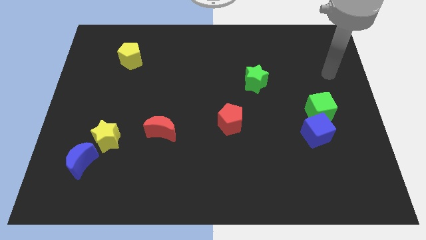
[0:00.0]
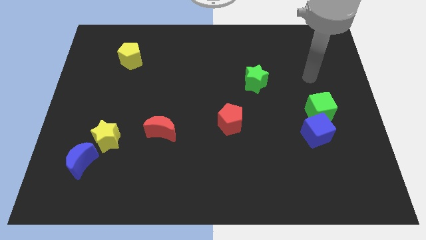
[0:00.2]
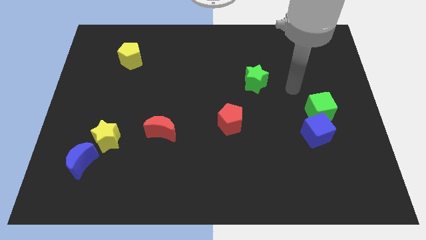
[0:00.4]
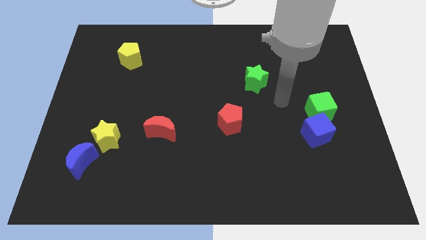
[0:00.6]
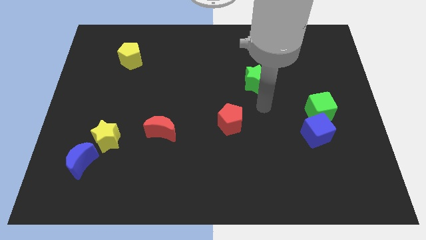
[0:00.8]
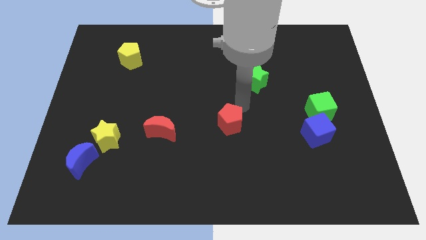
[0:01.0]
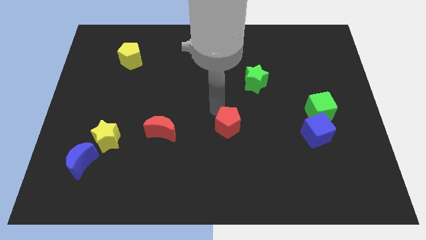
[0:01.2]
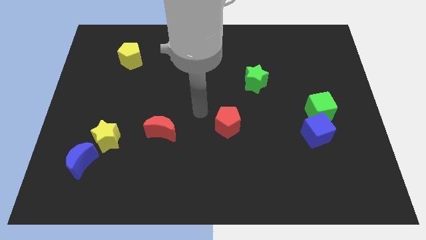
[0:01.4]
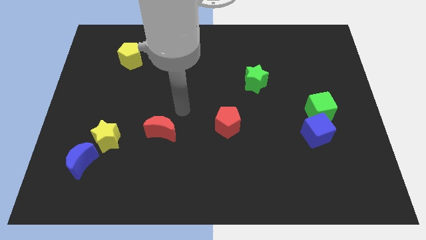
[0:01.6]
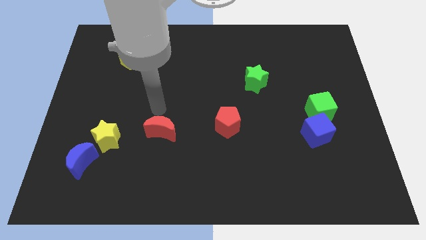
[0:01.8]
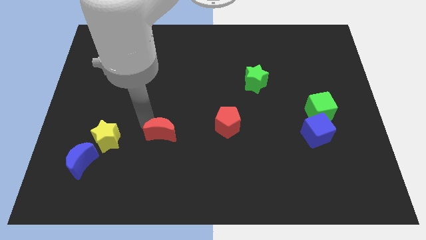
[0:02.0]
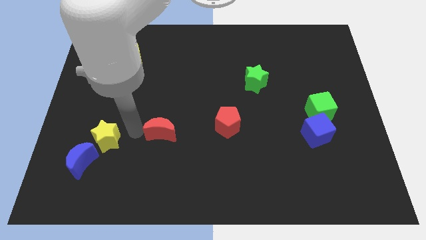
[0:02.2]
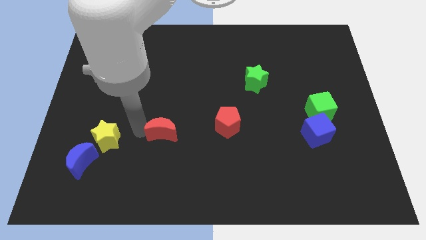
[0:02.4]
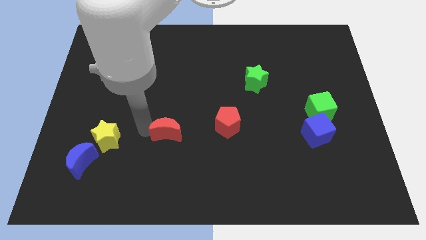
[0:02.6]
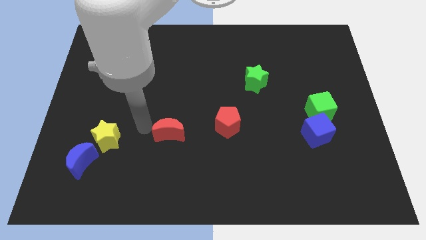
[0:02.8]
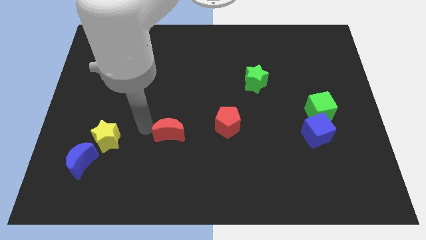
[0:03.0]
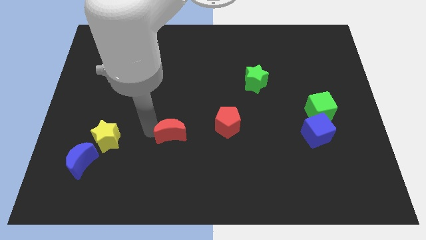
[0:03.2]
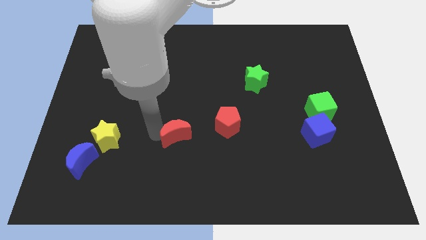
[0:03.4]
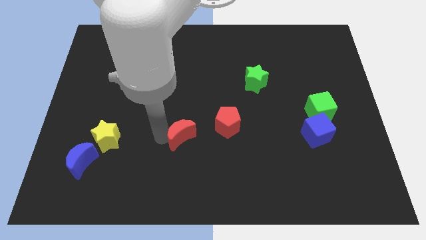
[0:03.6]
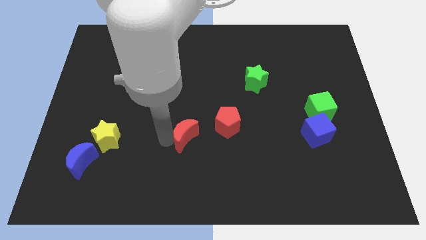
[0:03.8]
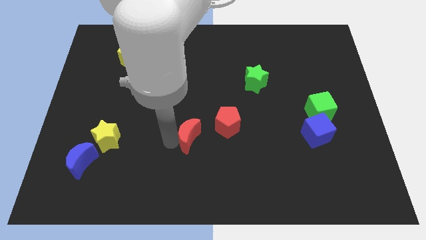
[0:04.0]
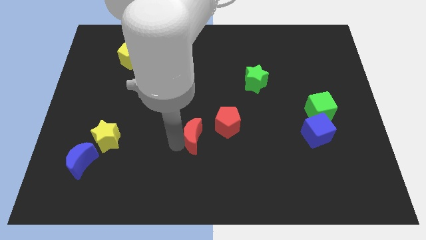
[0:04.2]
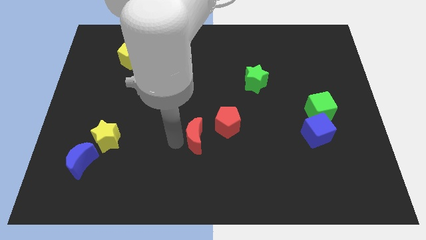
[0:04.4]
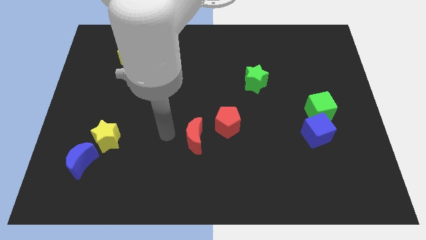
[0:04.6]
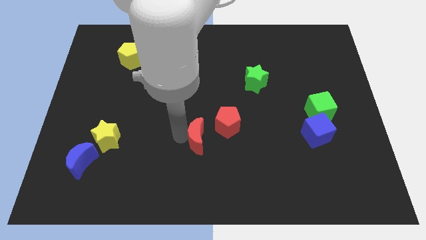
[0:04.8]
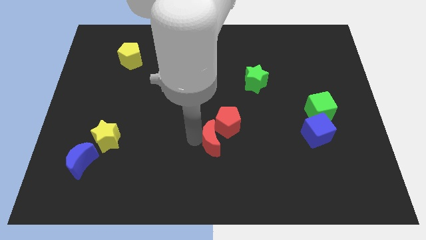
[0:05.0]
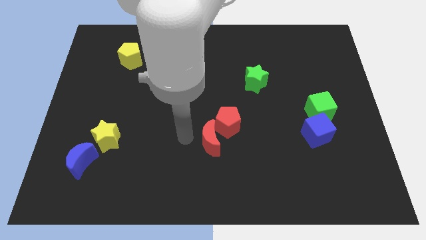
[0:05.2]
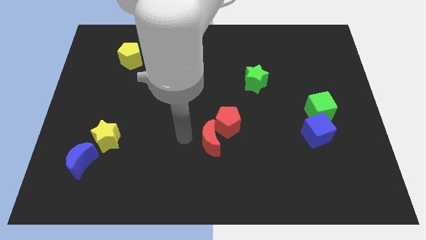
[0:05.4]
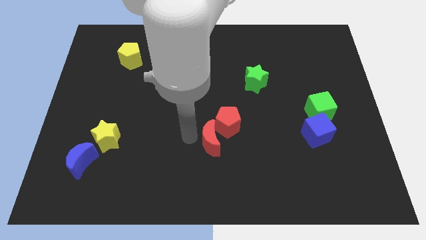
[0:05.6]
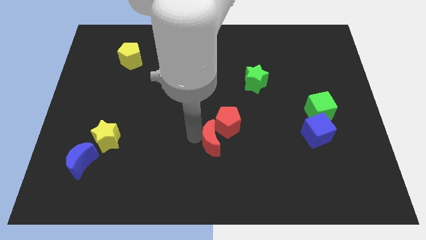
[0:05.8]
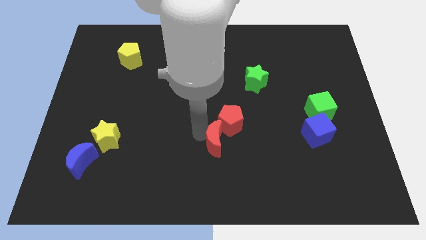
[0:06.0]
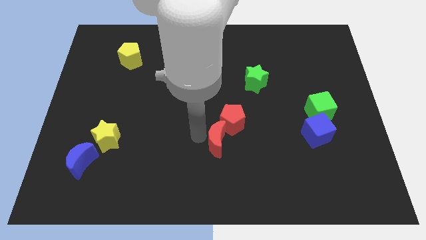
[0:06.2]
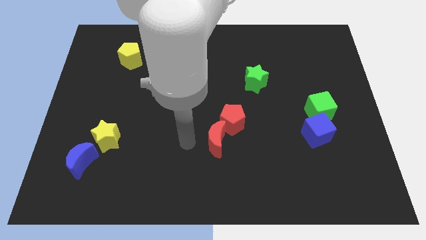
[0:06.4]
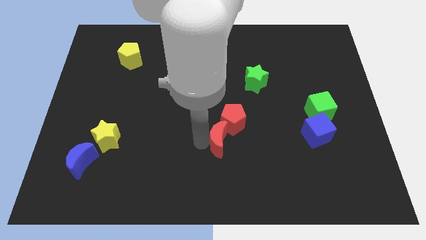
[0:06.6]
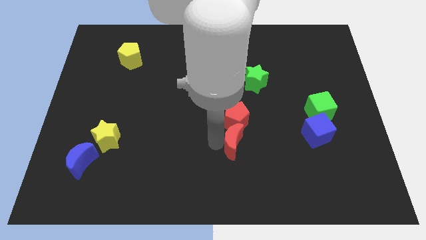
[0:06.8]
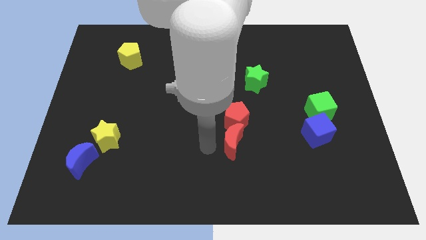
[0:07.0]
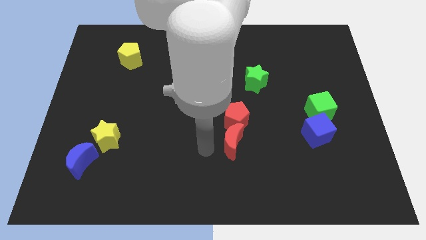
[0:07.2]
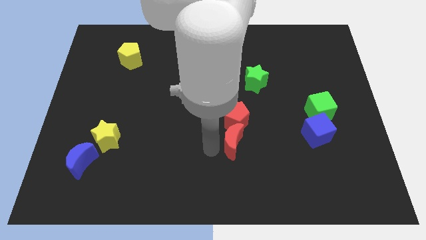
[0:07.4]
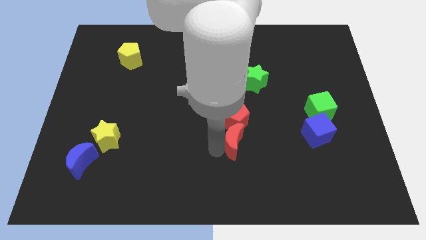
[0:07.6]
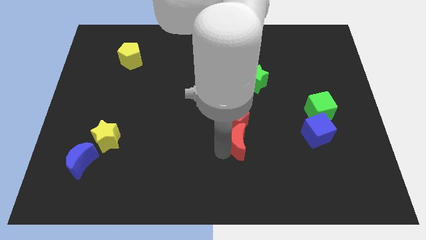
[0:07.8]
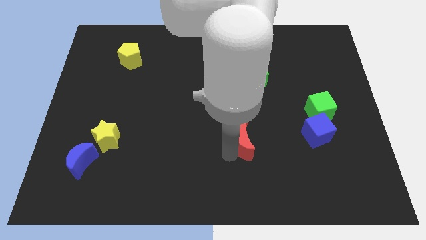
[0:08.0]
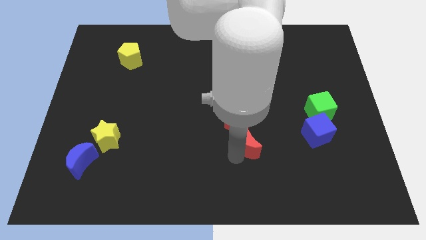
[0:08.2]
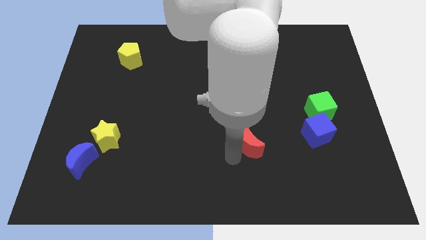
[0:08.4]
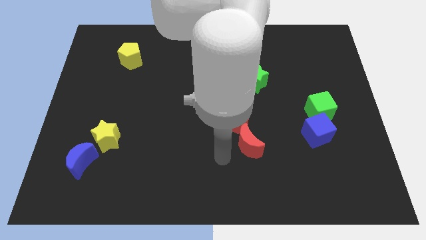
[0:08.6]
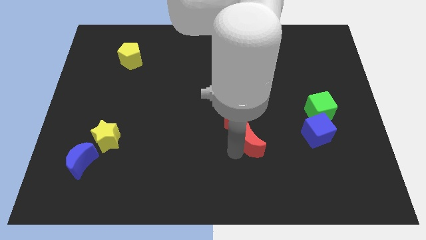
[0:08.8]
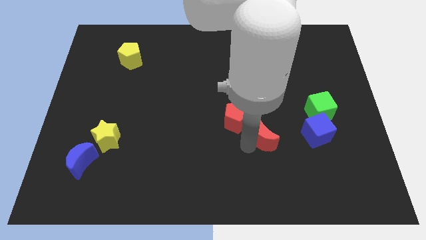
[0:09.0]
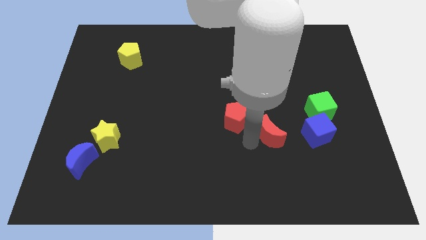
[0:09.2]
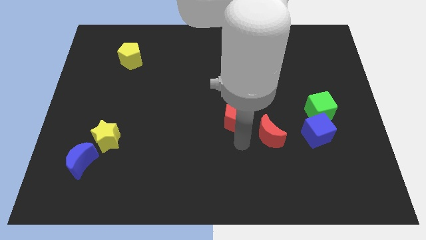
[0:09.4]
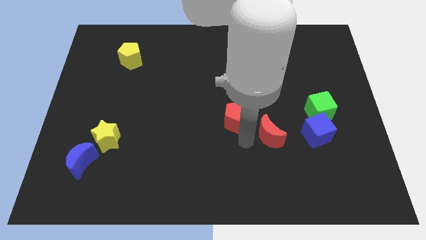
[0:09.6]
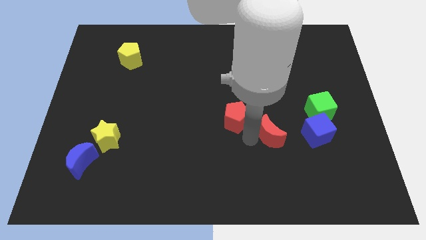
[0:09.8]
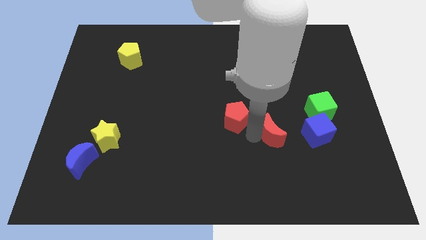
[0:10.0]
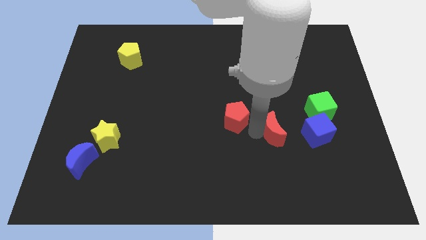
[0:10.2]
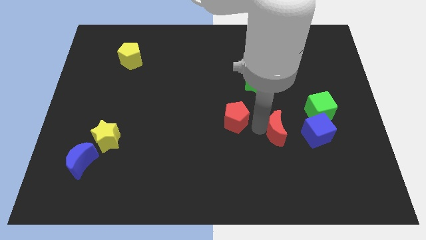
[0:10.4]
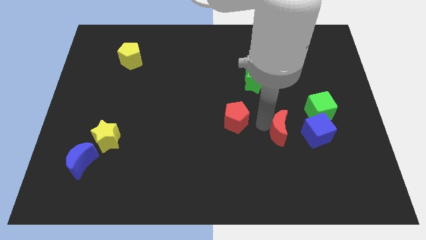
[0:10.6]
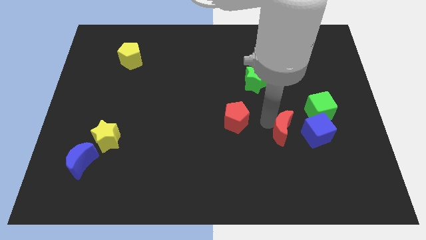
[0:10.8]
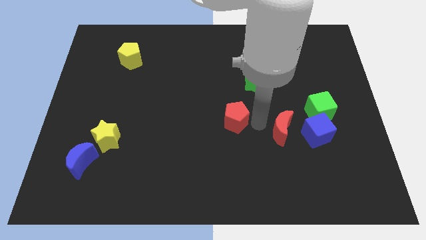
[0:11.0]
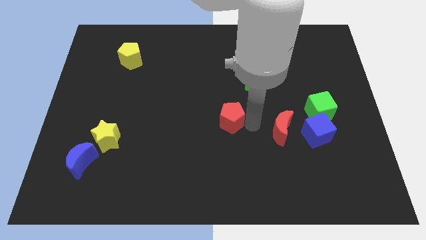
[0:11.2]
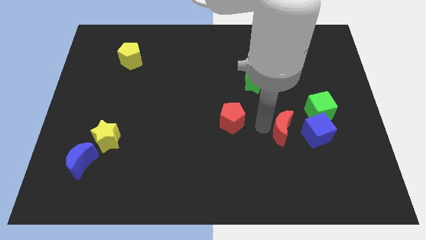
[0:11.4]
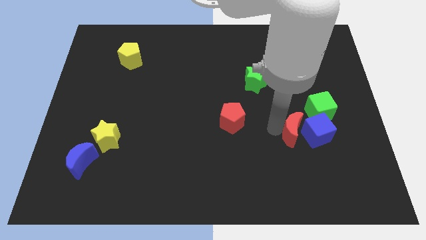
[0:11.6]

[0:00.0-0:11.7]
put the red moon towards the blue cube

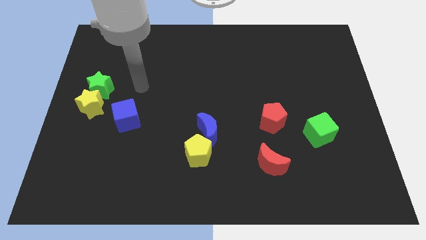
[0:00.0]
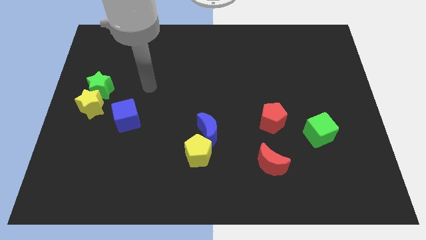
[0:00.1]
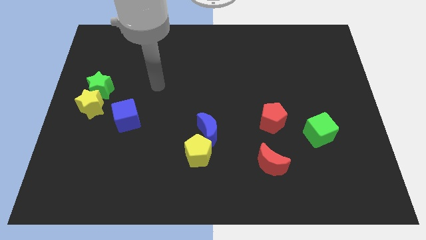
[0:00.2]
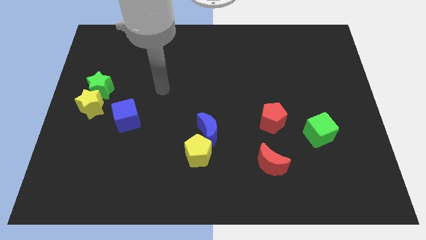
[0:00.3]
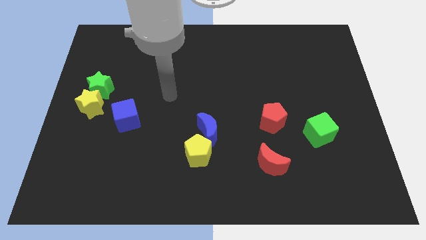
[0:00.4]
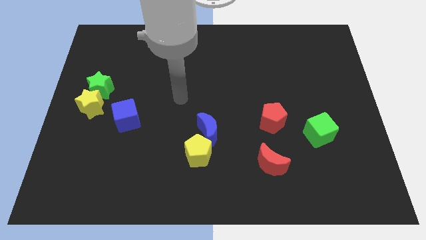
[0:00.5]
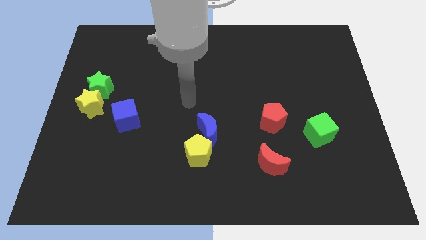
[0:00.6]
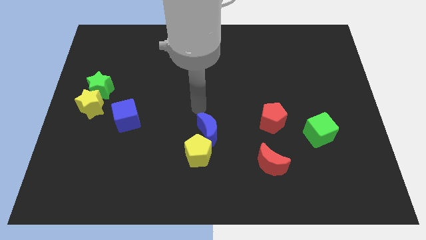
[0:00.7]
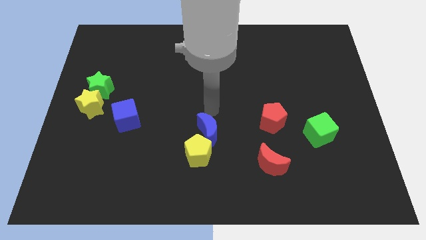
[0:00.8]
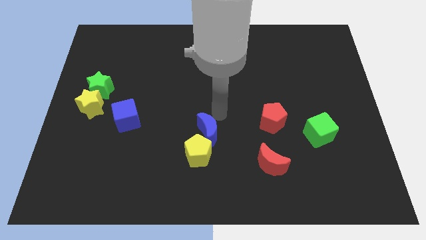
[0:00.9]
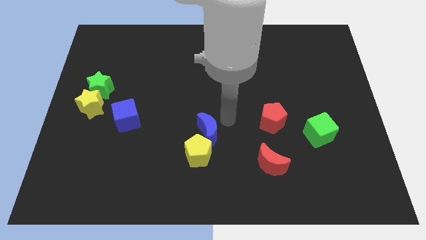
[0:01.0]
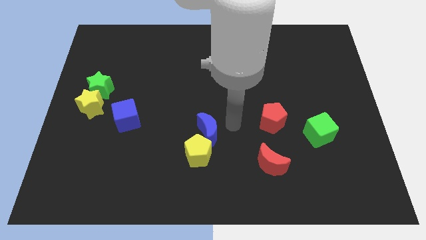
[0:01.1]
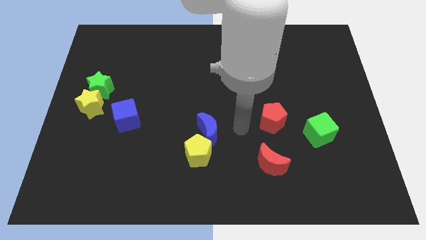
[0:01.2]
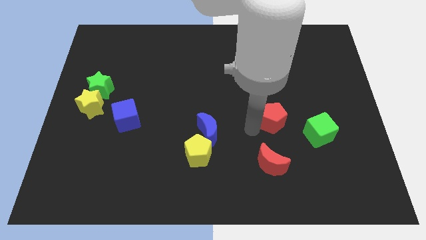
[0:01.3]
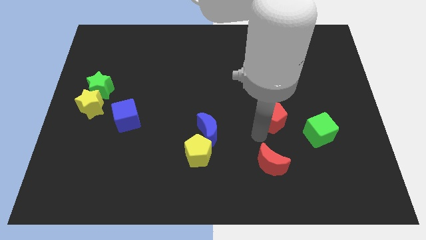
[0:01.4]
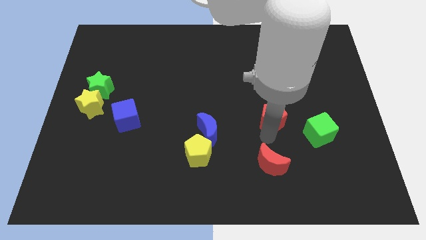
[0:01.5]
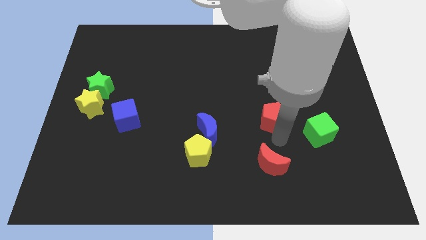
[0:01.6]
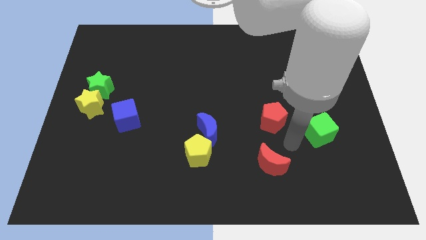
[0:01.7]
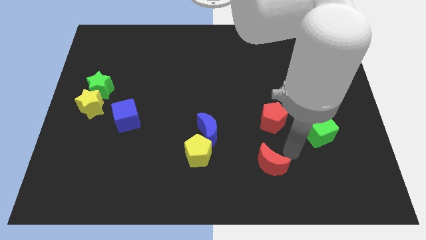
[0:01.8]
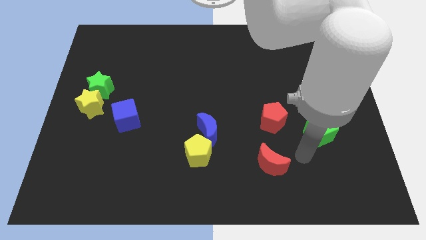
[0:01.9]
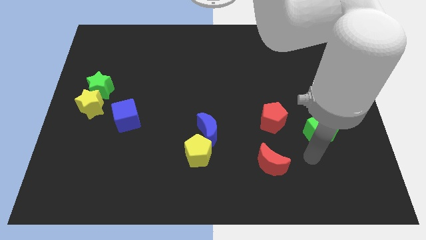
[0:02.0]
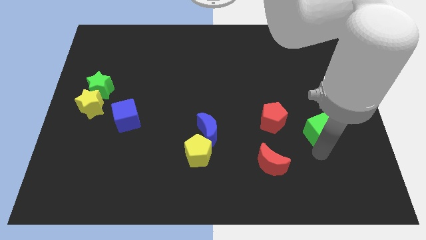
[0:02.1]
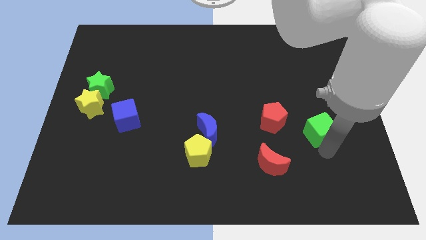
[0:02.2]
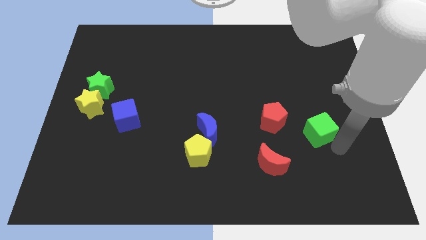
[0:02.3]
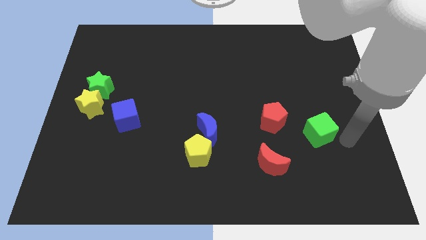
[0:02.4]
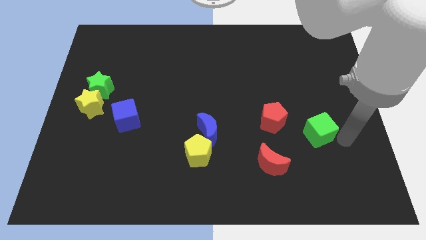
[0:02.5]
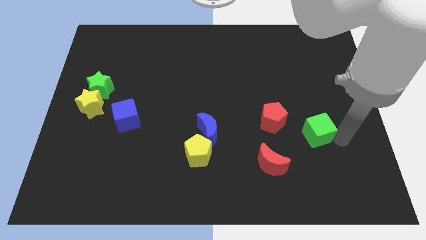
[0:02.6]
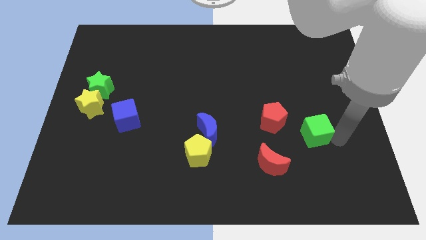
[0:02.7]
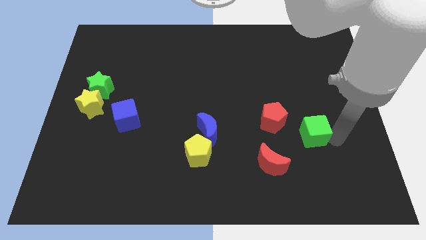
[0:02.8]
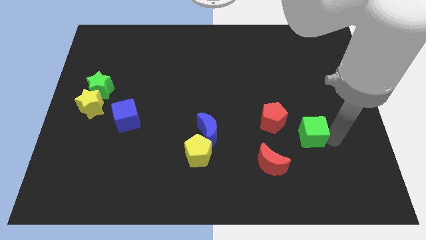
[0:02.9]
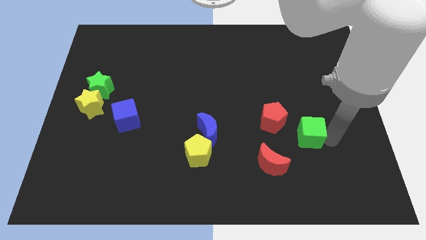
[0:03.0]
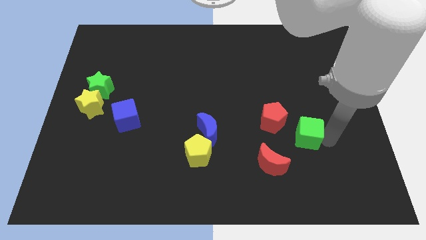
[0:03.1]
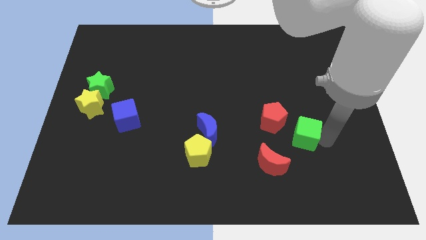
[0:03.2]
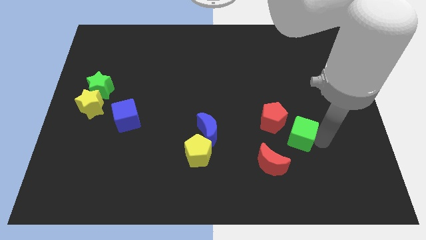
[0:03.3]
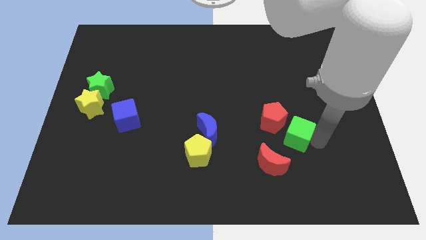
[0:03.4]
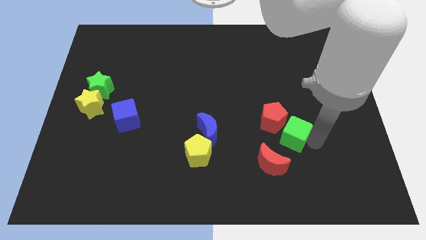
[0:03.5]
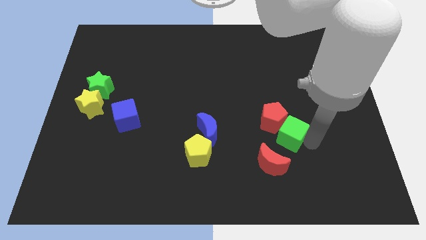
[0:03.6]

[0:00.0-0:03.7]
slide the green cube next to the red pentagon
